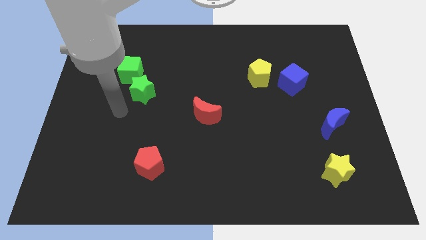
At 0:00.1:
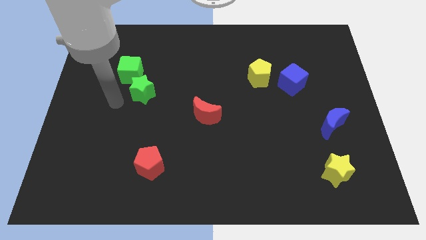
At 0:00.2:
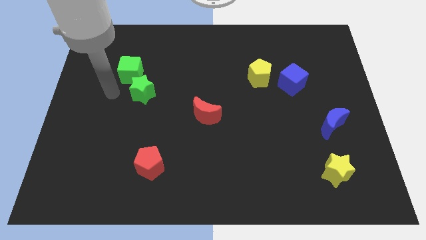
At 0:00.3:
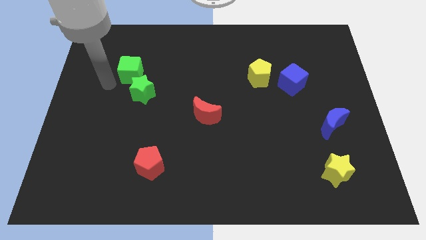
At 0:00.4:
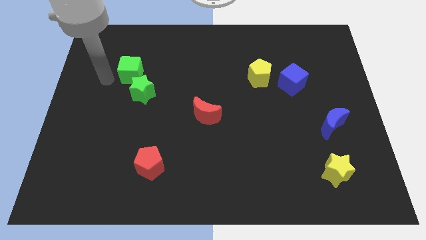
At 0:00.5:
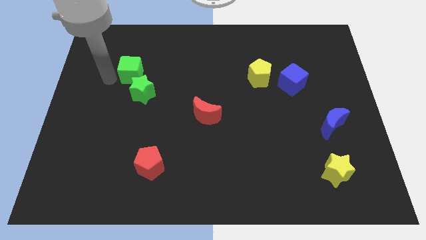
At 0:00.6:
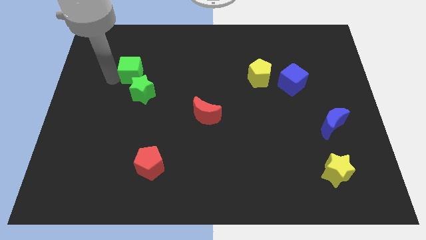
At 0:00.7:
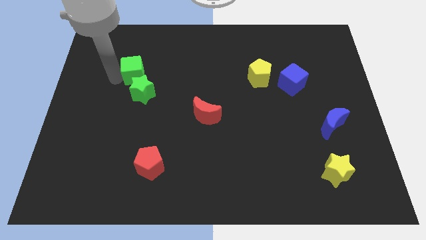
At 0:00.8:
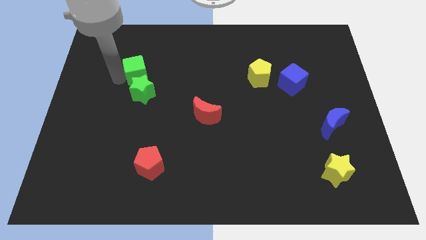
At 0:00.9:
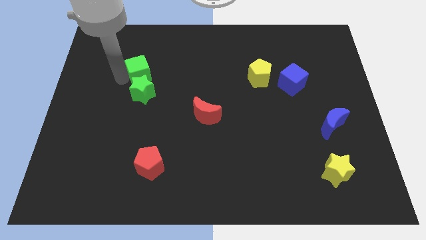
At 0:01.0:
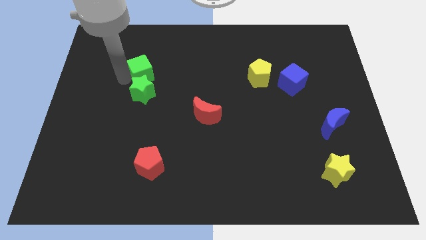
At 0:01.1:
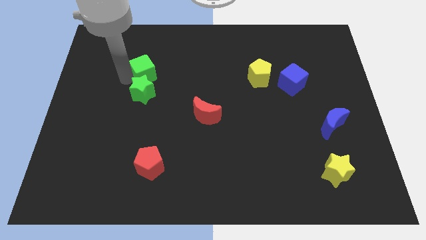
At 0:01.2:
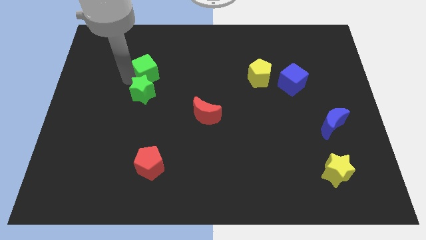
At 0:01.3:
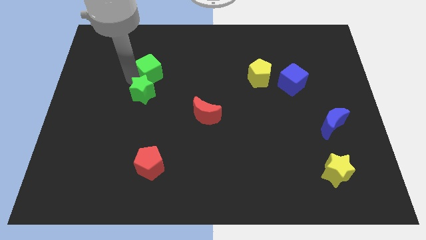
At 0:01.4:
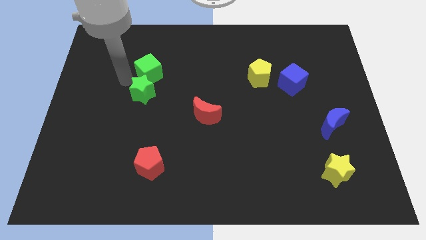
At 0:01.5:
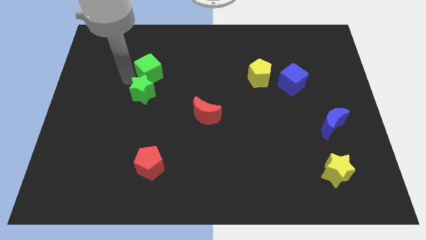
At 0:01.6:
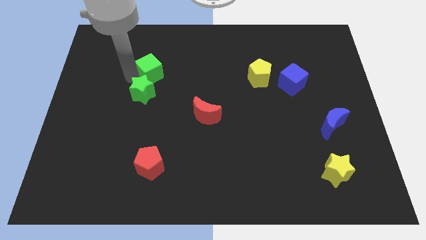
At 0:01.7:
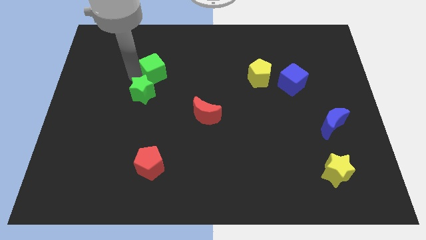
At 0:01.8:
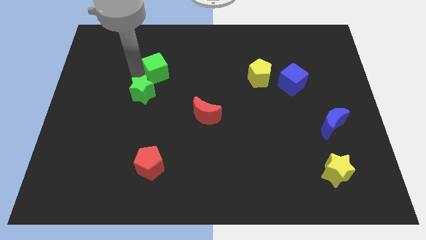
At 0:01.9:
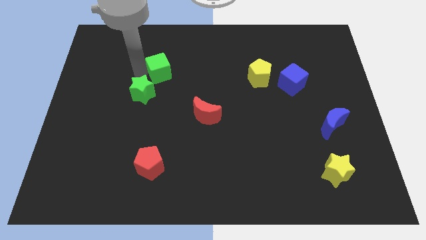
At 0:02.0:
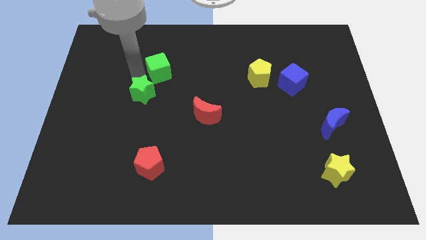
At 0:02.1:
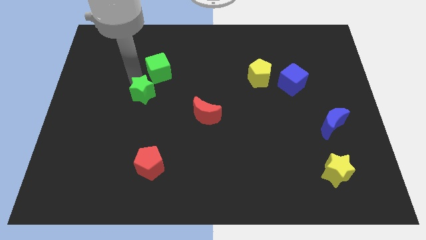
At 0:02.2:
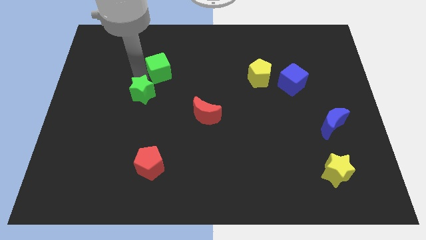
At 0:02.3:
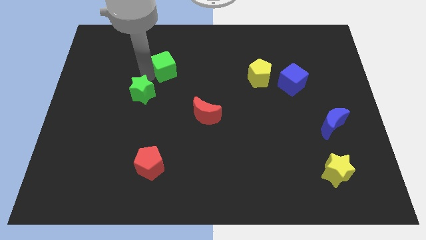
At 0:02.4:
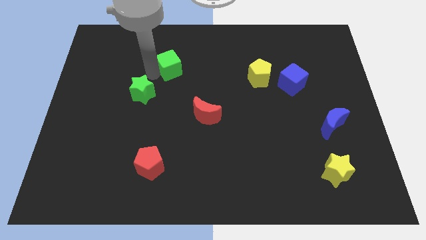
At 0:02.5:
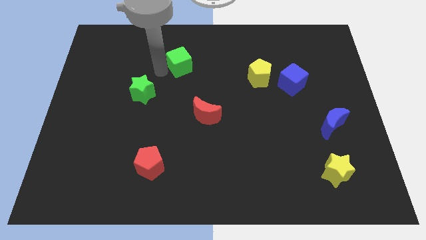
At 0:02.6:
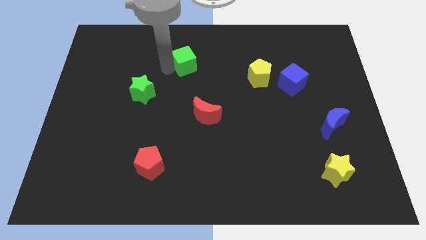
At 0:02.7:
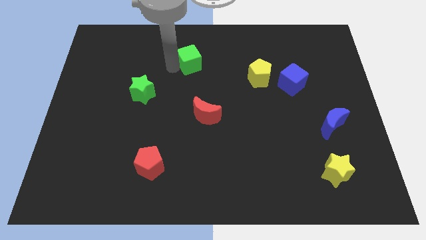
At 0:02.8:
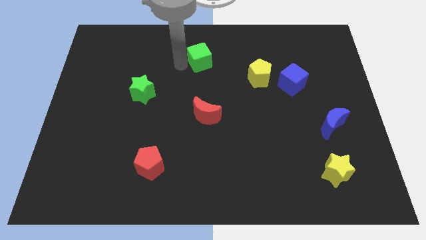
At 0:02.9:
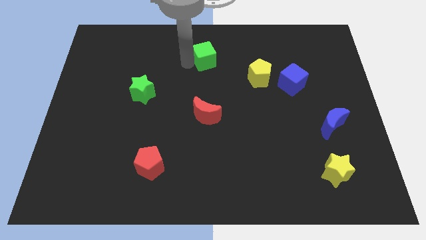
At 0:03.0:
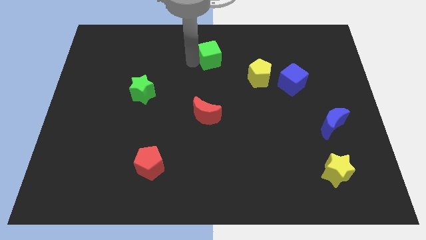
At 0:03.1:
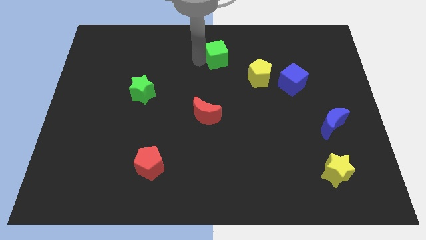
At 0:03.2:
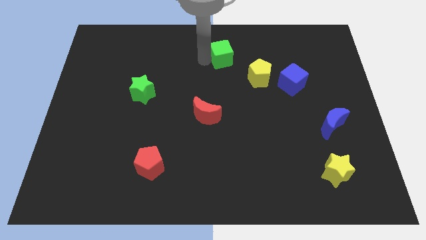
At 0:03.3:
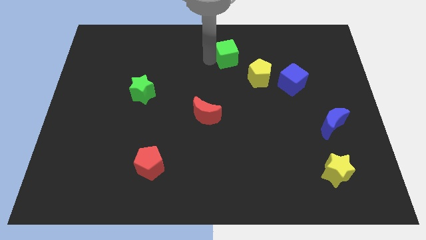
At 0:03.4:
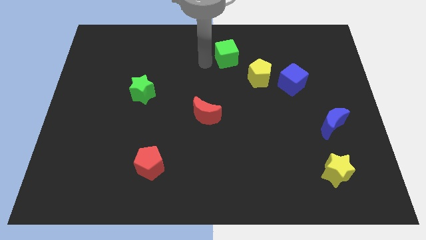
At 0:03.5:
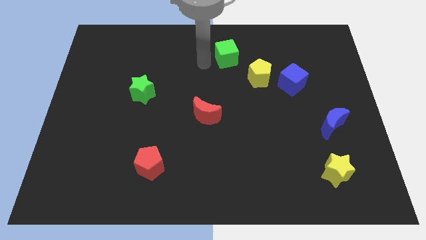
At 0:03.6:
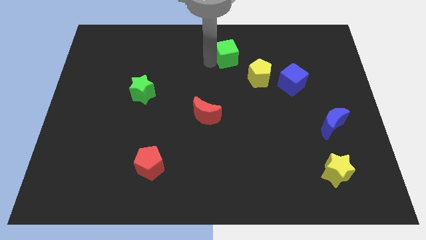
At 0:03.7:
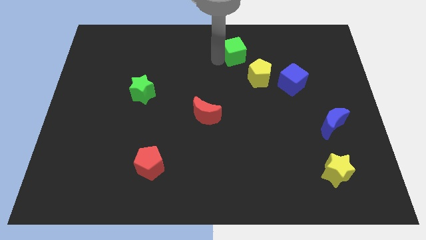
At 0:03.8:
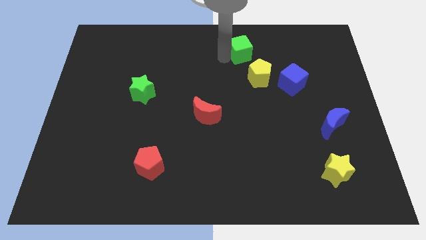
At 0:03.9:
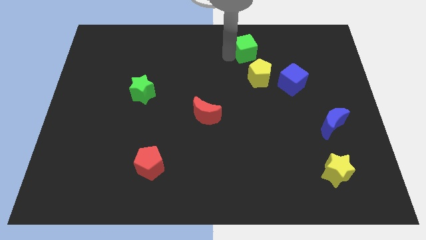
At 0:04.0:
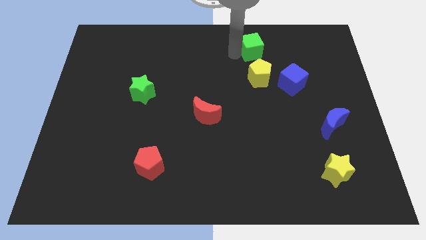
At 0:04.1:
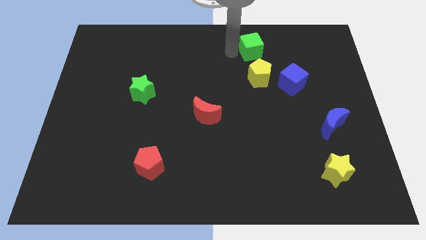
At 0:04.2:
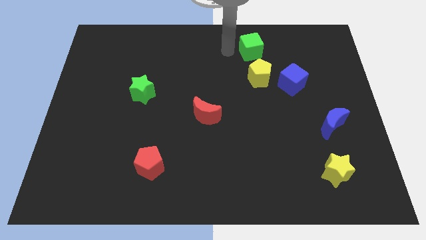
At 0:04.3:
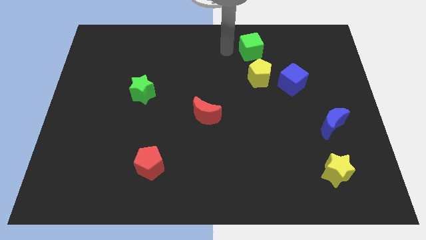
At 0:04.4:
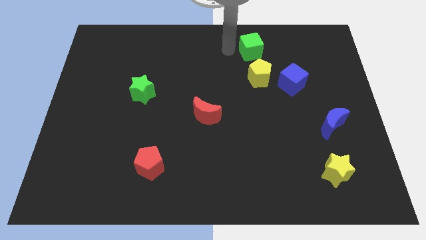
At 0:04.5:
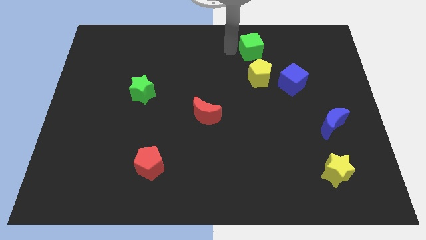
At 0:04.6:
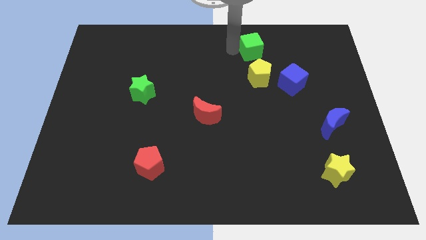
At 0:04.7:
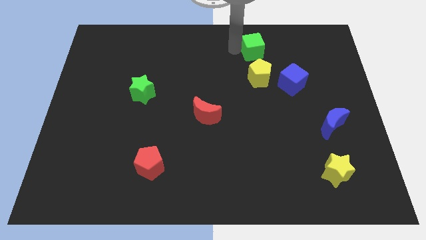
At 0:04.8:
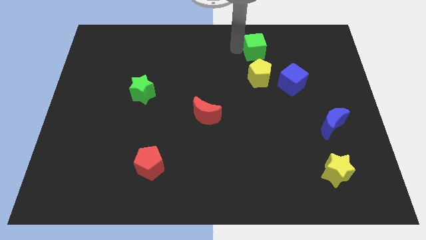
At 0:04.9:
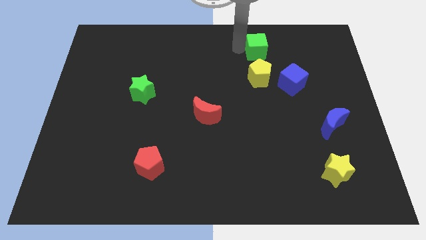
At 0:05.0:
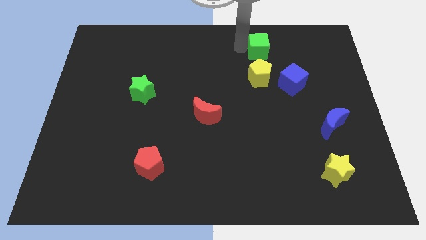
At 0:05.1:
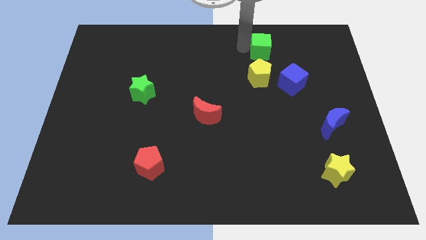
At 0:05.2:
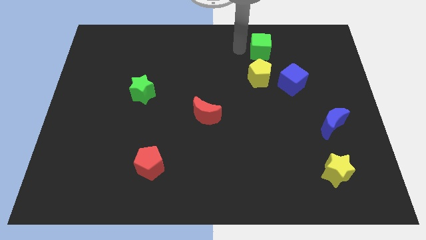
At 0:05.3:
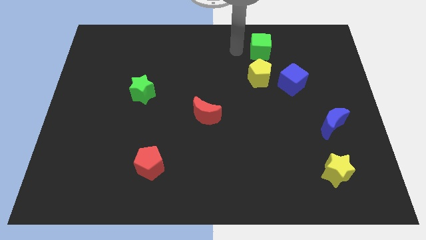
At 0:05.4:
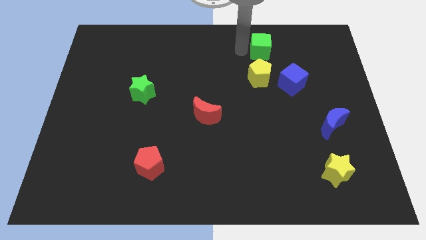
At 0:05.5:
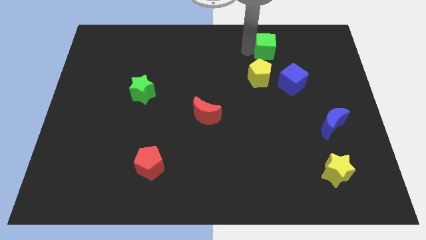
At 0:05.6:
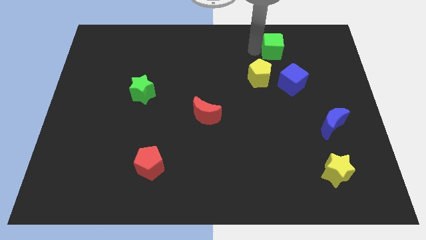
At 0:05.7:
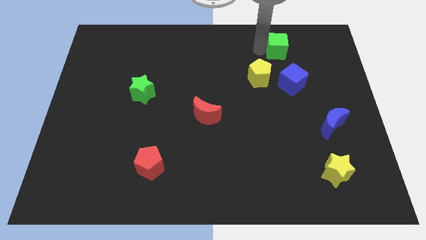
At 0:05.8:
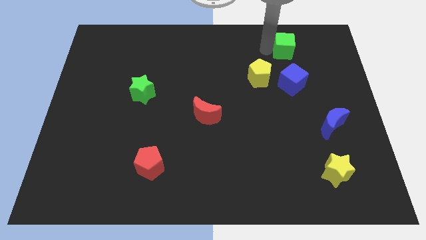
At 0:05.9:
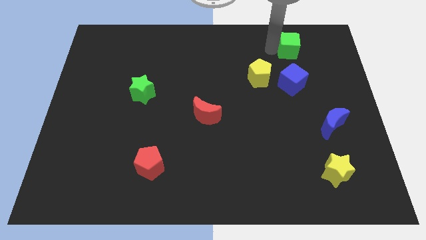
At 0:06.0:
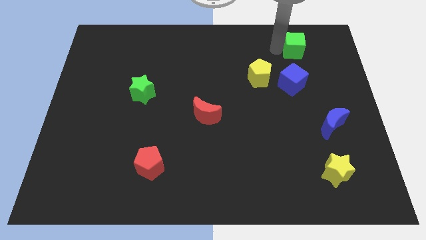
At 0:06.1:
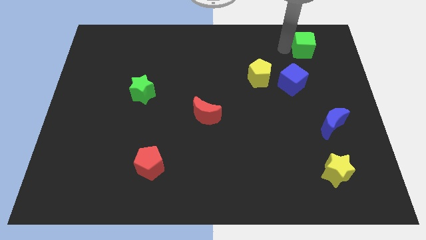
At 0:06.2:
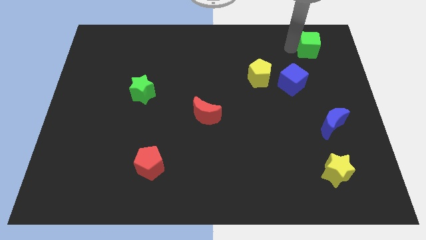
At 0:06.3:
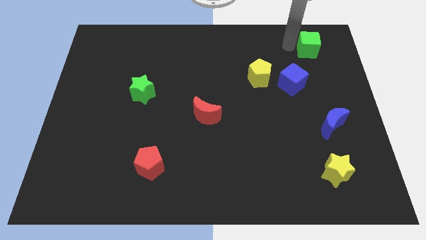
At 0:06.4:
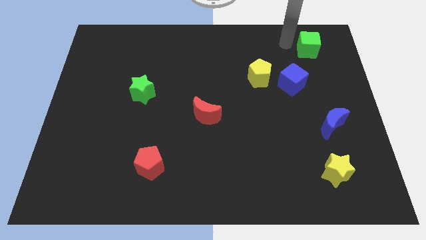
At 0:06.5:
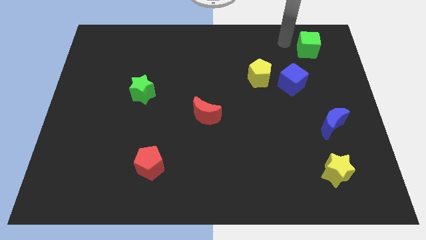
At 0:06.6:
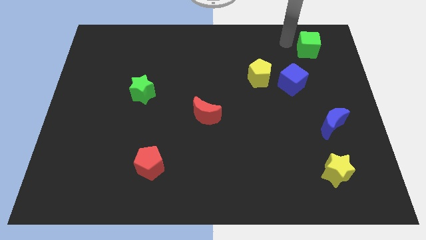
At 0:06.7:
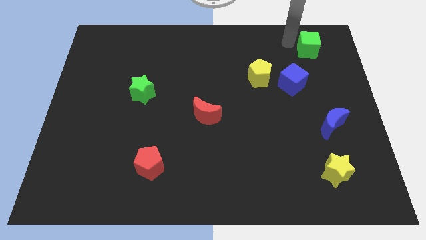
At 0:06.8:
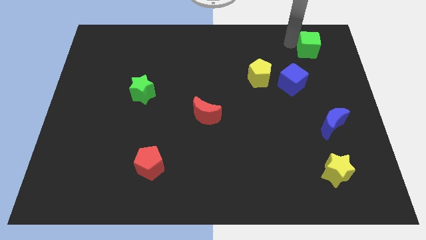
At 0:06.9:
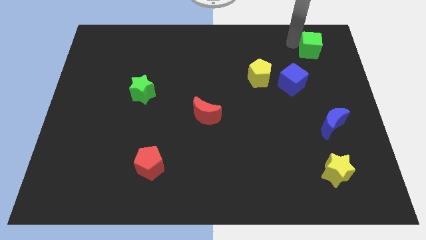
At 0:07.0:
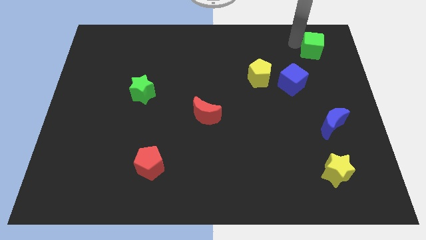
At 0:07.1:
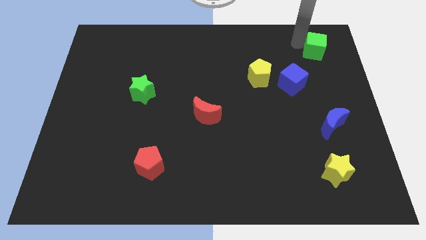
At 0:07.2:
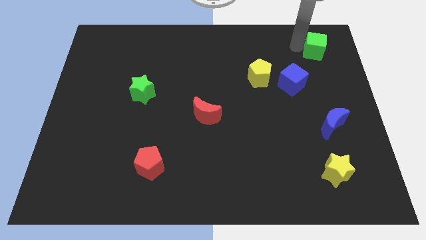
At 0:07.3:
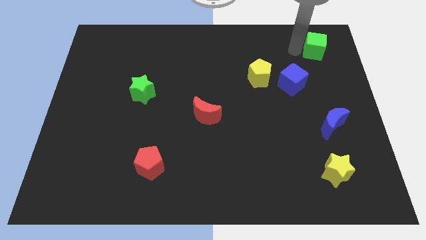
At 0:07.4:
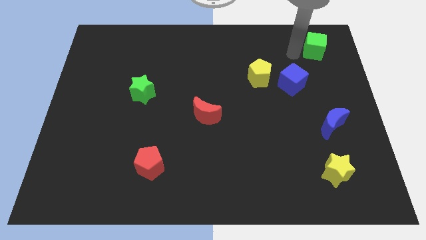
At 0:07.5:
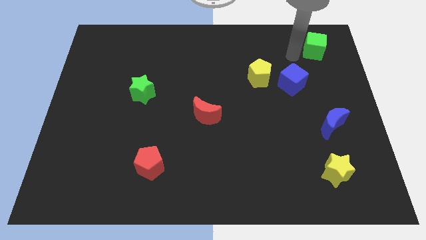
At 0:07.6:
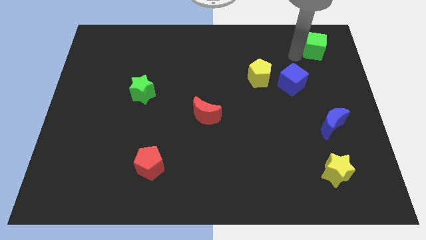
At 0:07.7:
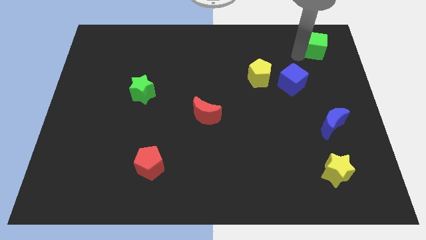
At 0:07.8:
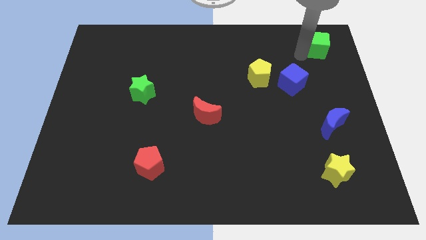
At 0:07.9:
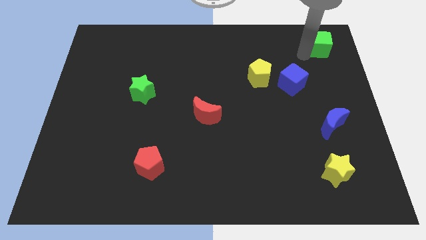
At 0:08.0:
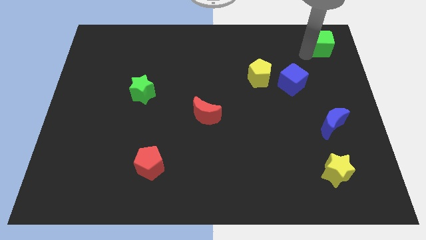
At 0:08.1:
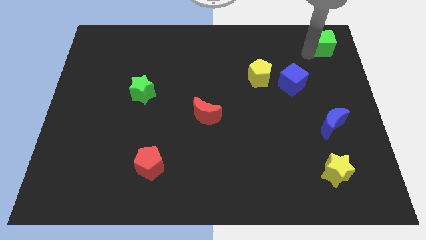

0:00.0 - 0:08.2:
push the green cube to the top right
